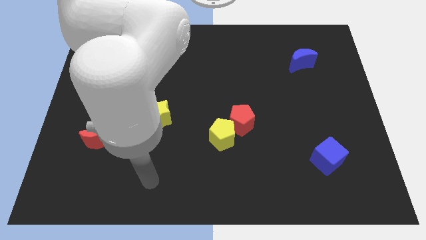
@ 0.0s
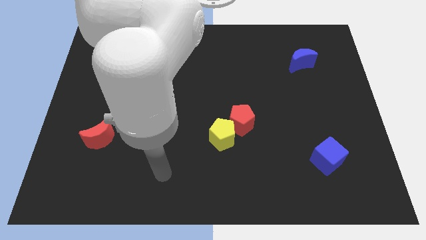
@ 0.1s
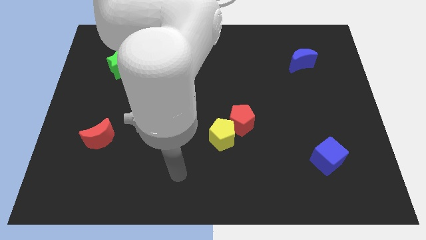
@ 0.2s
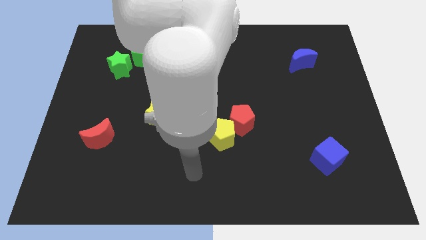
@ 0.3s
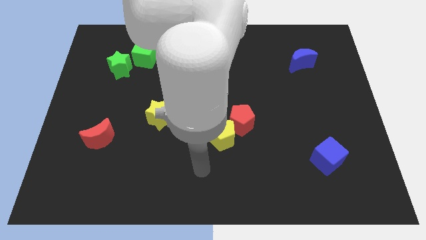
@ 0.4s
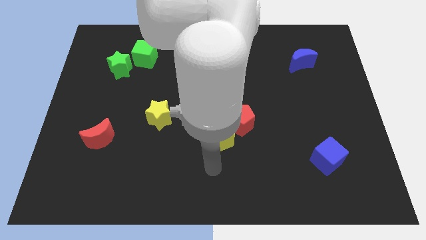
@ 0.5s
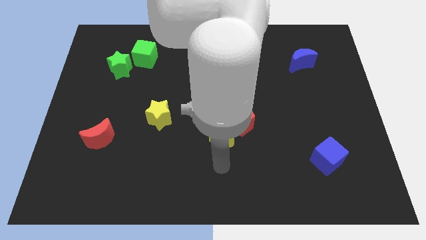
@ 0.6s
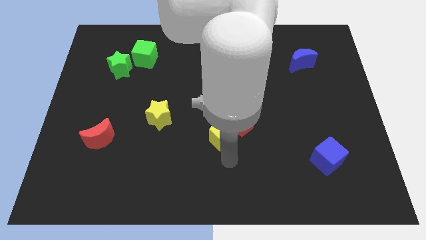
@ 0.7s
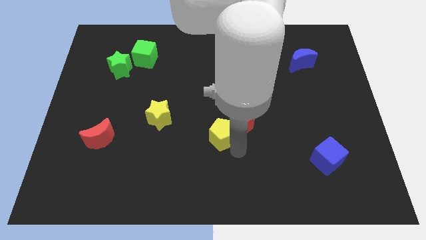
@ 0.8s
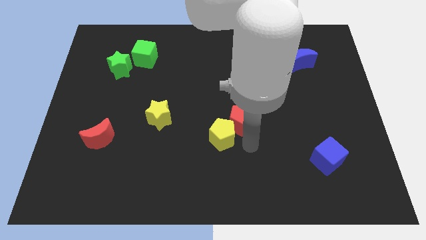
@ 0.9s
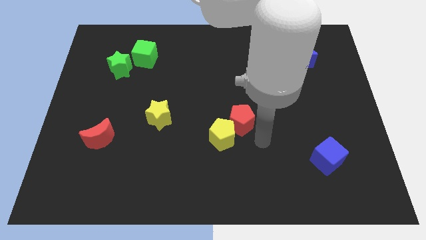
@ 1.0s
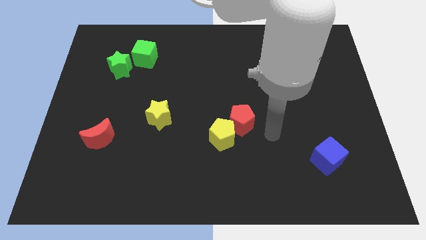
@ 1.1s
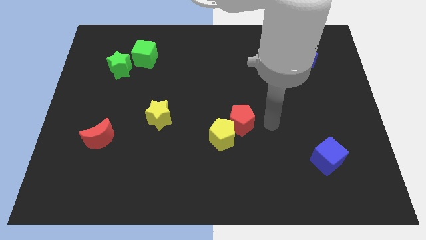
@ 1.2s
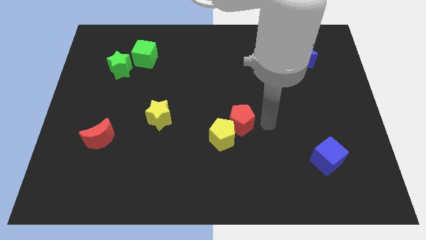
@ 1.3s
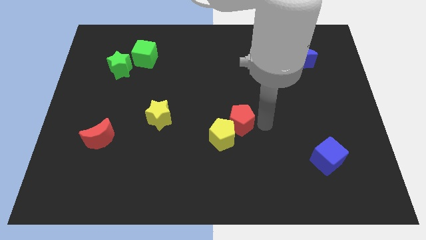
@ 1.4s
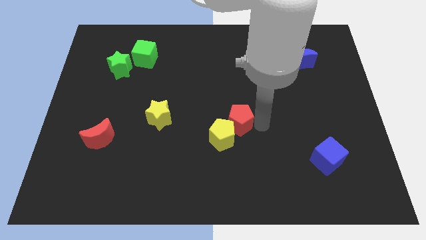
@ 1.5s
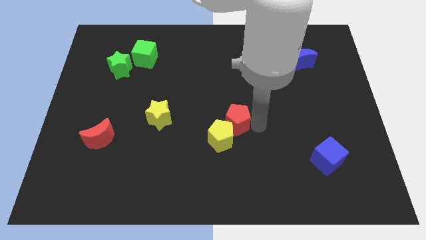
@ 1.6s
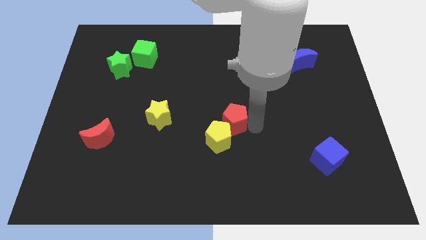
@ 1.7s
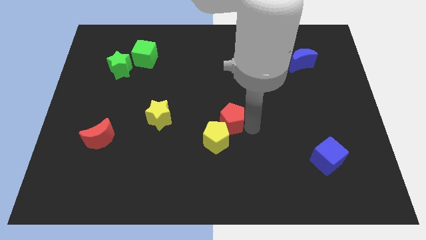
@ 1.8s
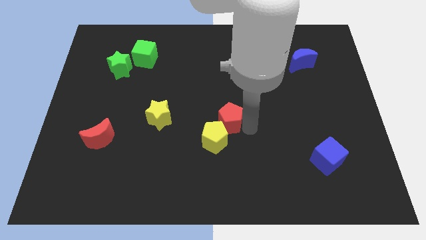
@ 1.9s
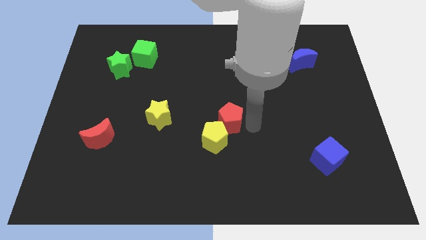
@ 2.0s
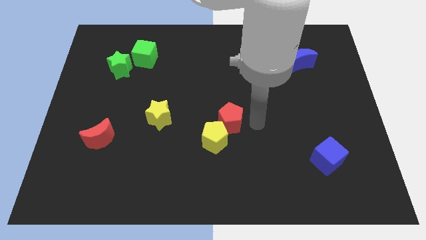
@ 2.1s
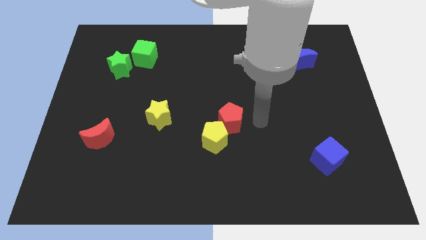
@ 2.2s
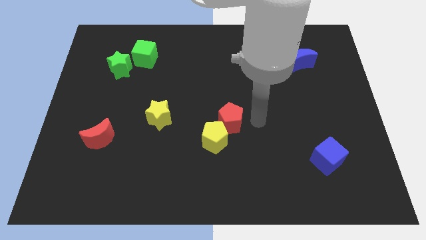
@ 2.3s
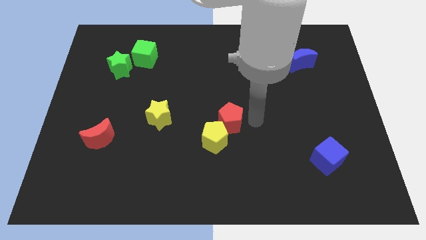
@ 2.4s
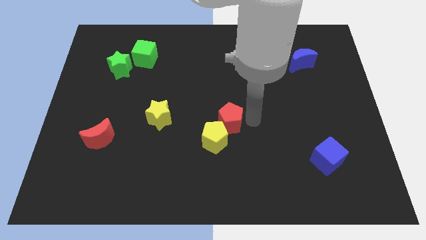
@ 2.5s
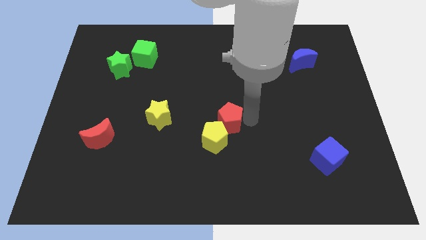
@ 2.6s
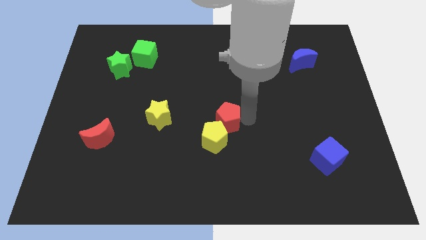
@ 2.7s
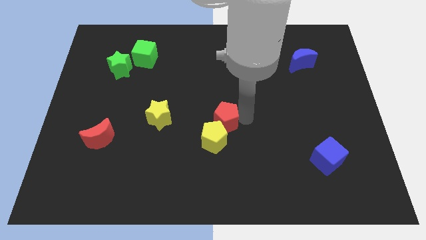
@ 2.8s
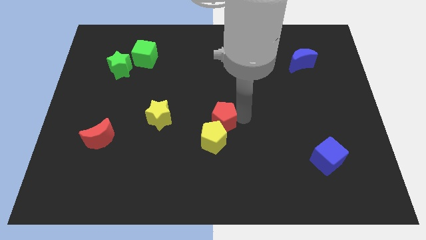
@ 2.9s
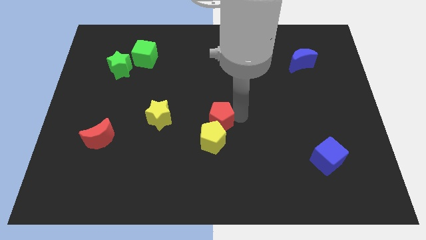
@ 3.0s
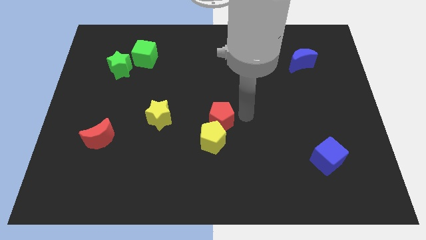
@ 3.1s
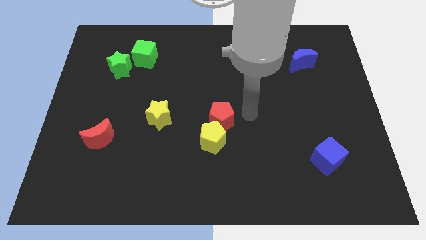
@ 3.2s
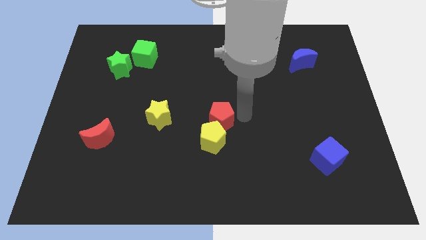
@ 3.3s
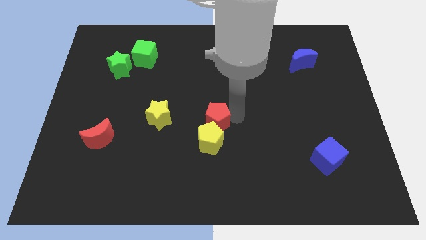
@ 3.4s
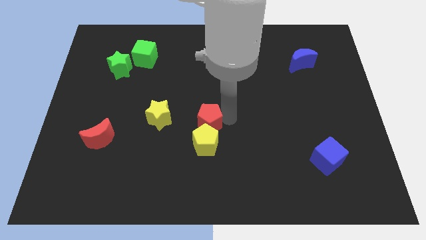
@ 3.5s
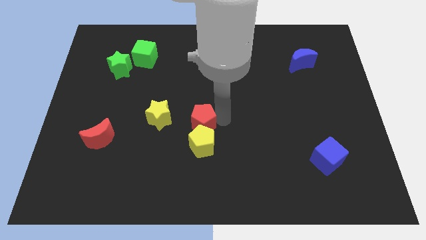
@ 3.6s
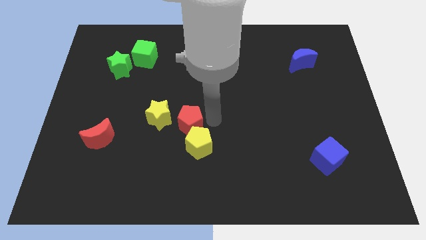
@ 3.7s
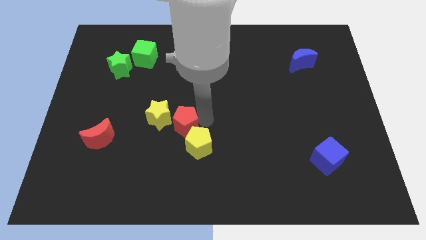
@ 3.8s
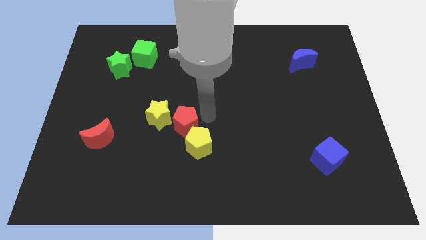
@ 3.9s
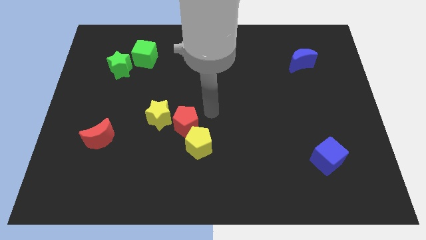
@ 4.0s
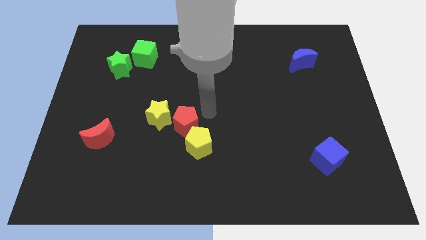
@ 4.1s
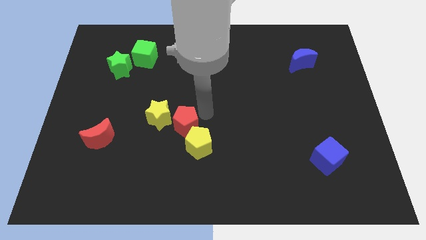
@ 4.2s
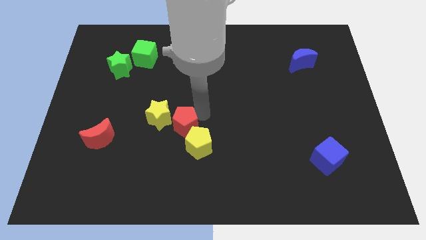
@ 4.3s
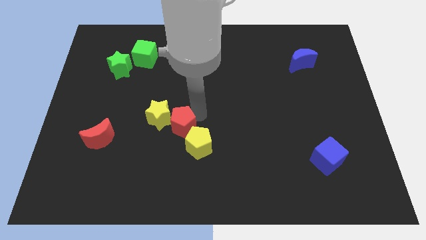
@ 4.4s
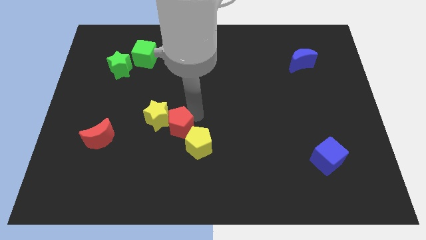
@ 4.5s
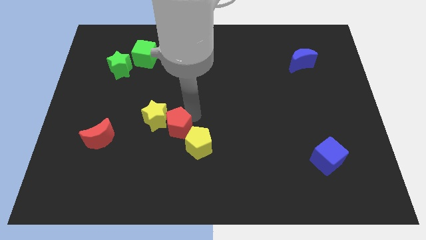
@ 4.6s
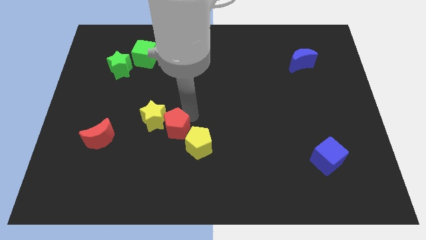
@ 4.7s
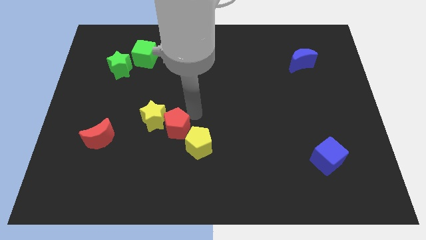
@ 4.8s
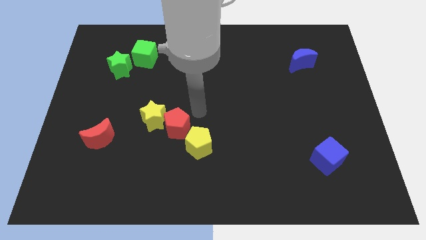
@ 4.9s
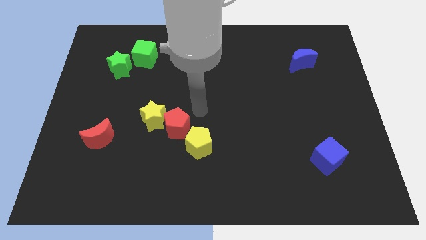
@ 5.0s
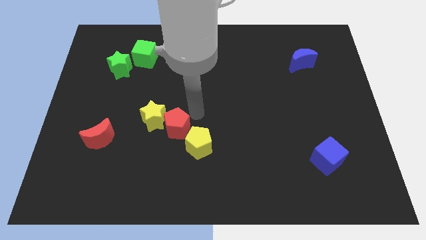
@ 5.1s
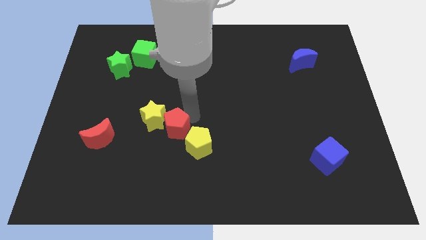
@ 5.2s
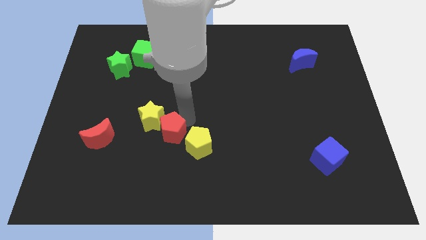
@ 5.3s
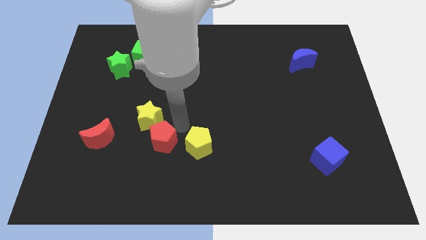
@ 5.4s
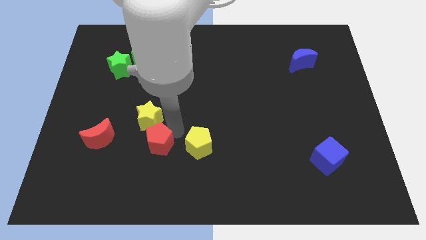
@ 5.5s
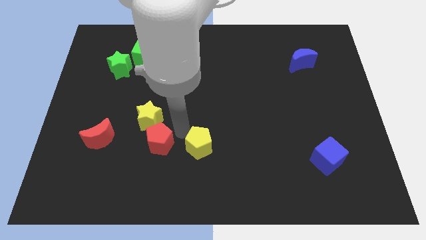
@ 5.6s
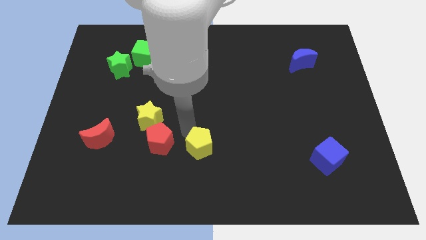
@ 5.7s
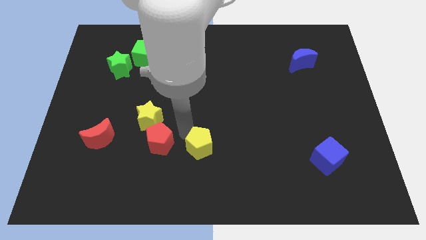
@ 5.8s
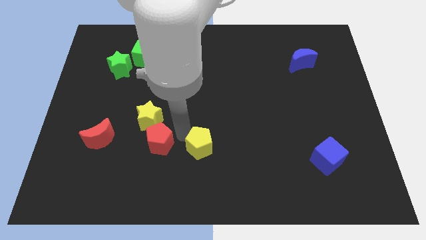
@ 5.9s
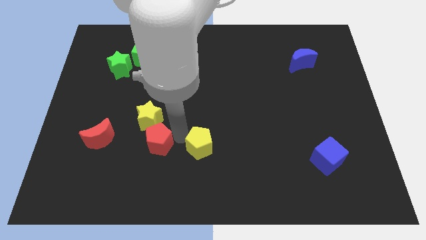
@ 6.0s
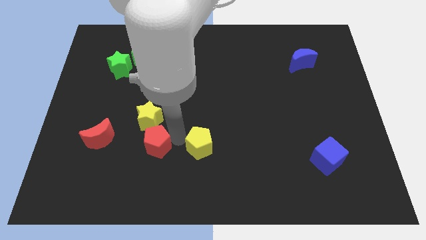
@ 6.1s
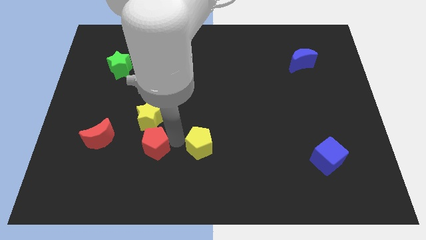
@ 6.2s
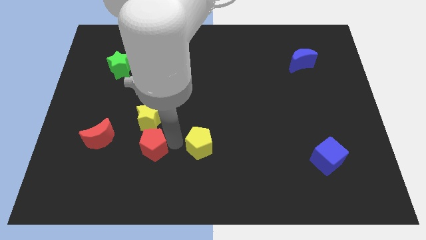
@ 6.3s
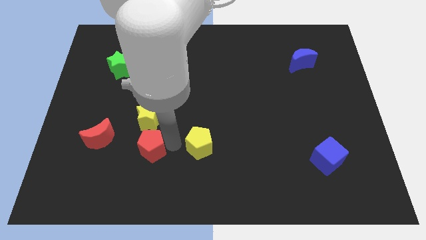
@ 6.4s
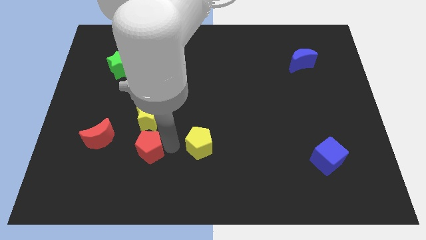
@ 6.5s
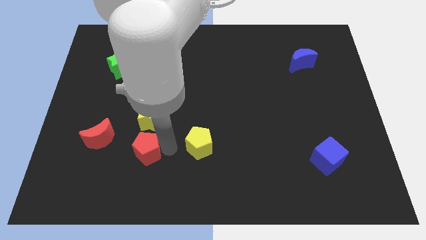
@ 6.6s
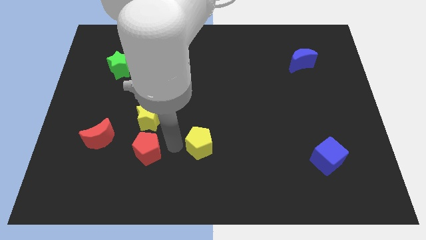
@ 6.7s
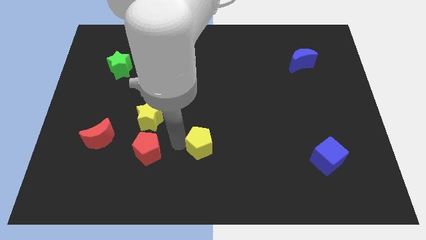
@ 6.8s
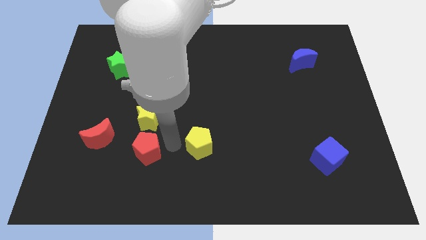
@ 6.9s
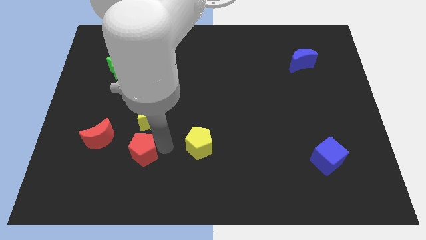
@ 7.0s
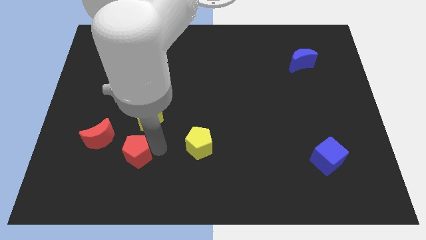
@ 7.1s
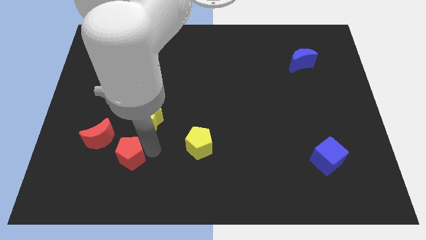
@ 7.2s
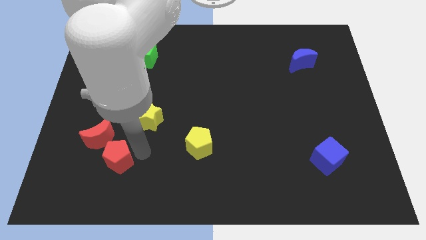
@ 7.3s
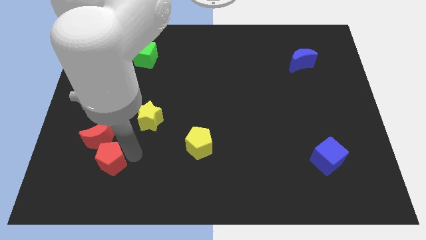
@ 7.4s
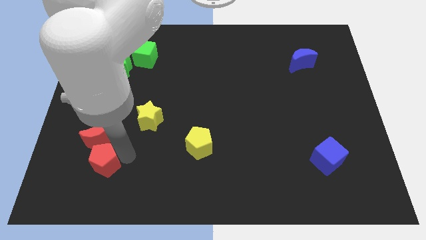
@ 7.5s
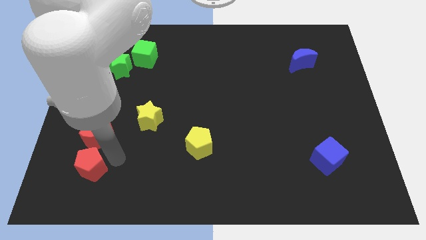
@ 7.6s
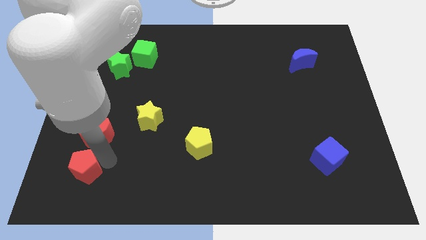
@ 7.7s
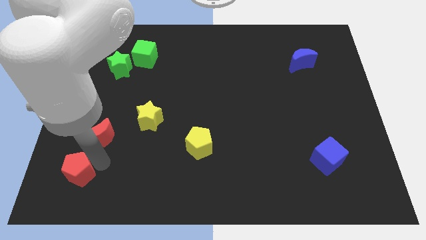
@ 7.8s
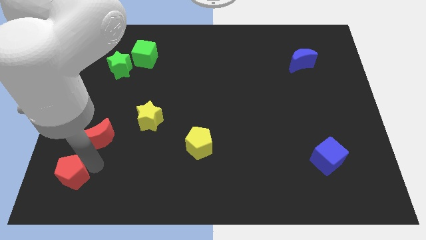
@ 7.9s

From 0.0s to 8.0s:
push the red pentagon to the bottom left
